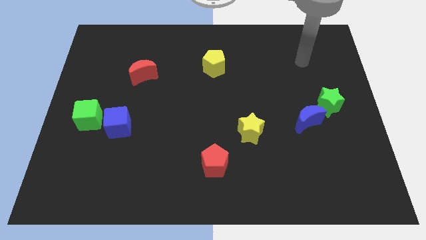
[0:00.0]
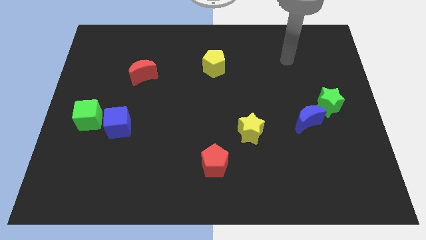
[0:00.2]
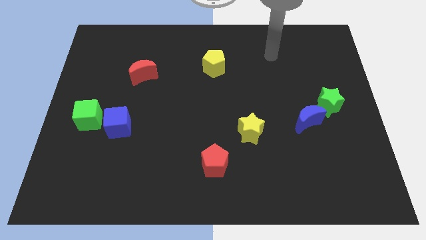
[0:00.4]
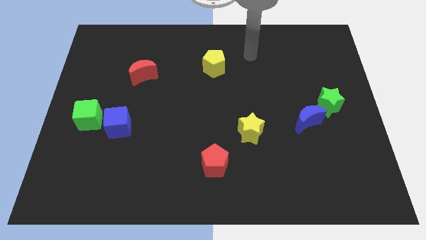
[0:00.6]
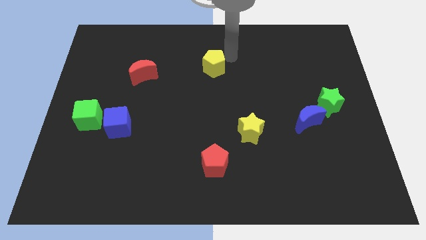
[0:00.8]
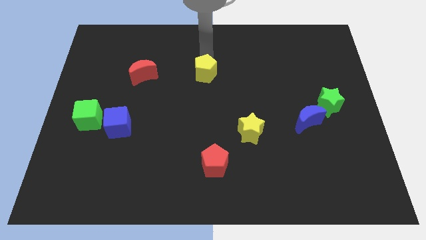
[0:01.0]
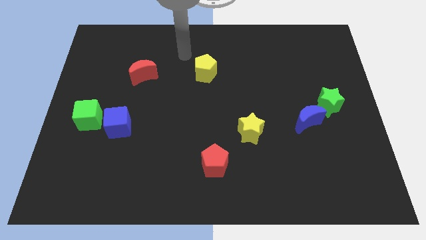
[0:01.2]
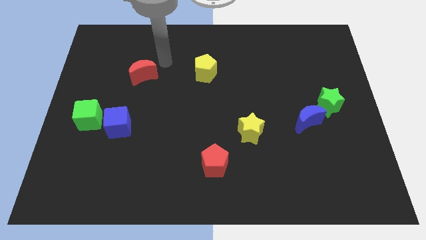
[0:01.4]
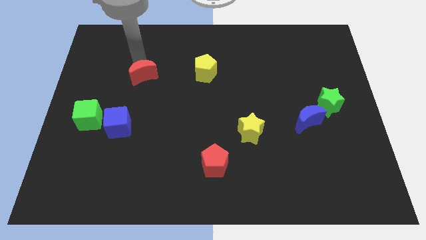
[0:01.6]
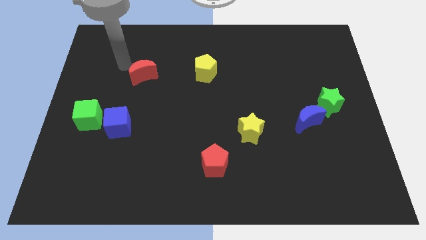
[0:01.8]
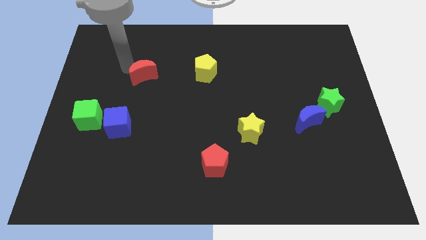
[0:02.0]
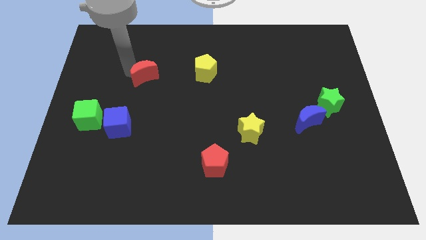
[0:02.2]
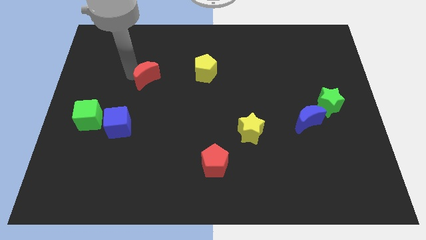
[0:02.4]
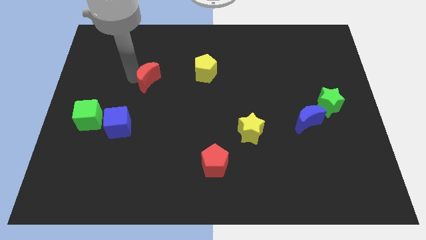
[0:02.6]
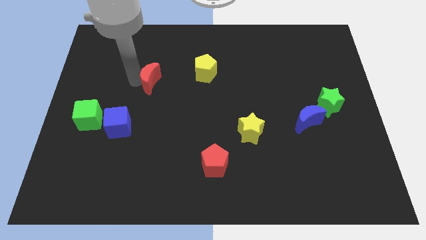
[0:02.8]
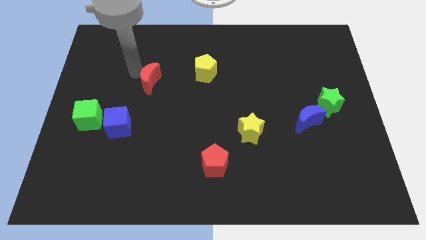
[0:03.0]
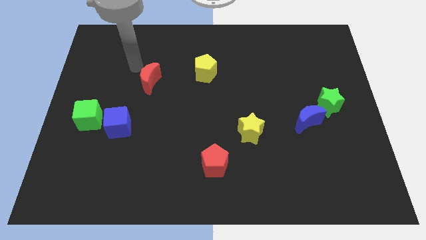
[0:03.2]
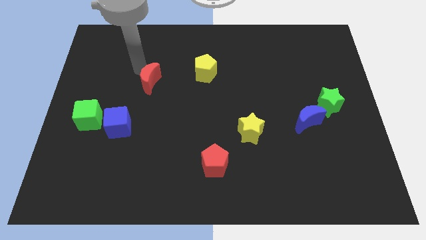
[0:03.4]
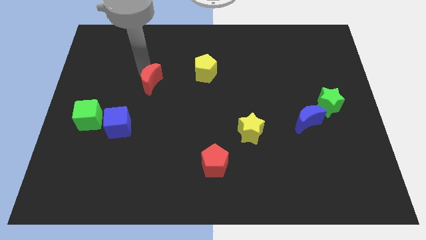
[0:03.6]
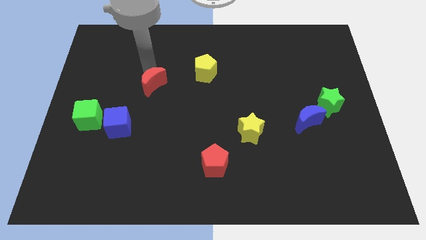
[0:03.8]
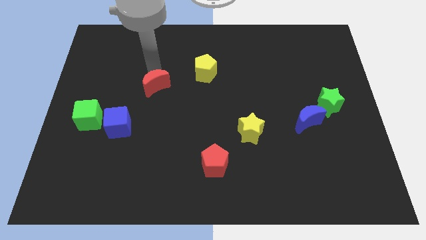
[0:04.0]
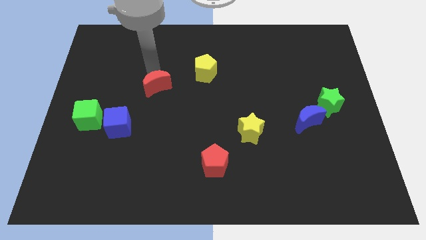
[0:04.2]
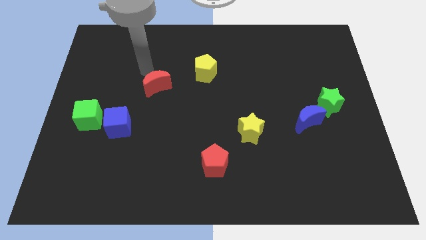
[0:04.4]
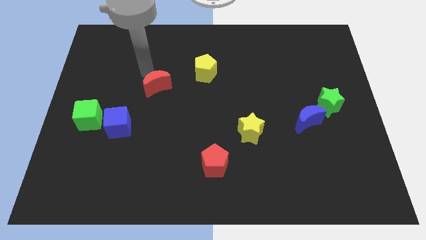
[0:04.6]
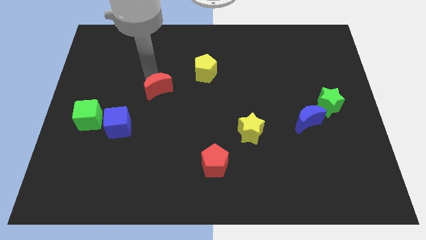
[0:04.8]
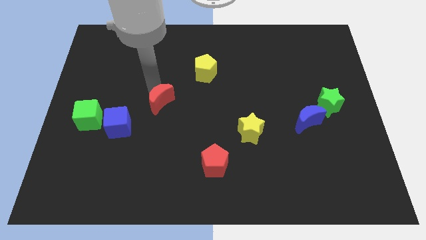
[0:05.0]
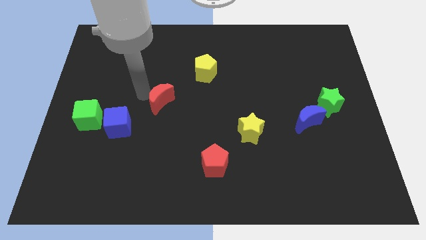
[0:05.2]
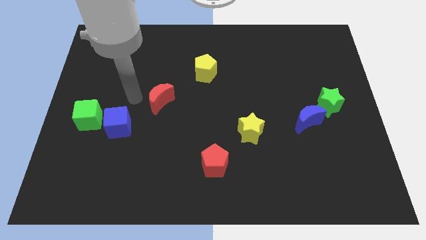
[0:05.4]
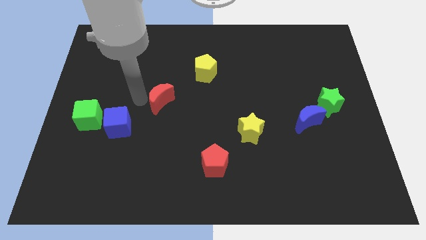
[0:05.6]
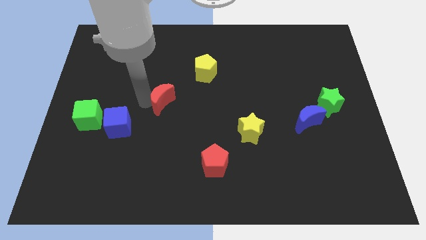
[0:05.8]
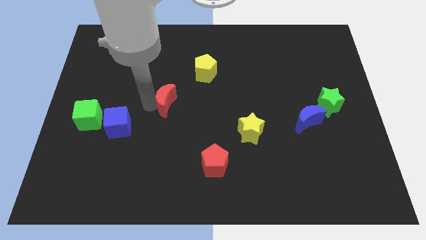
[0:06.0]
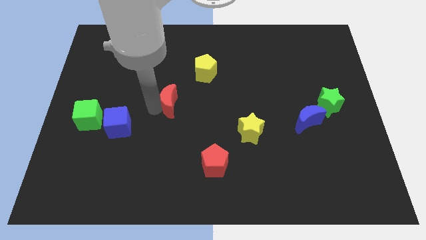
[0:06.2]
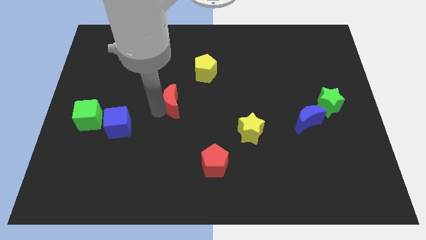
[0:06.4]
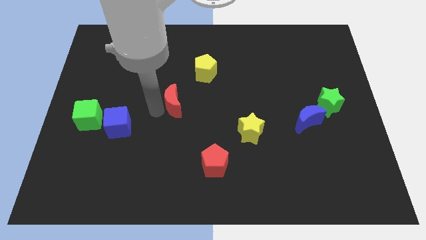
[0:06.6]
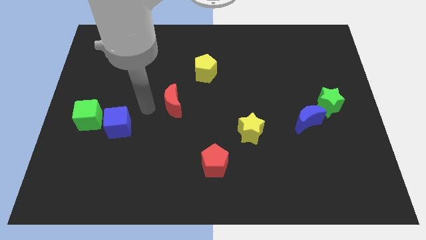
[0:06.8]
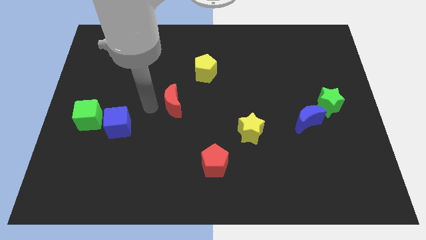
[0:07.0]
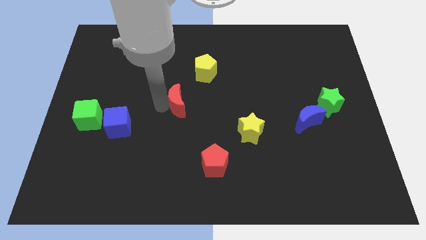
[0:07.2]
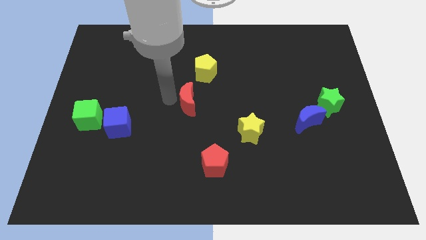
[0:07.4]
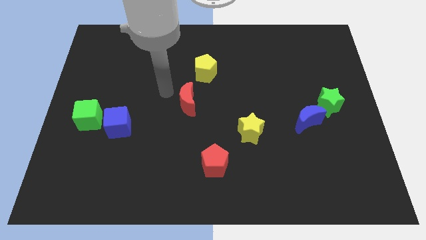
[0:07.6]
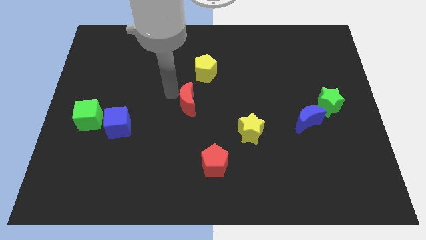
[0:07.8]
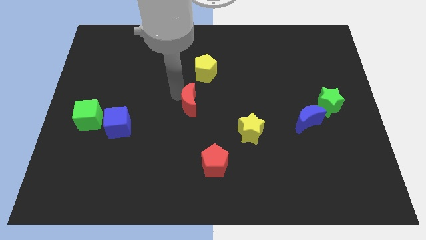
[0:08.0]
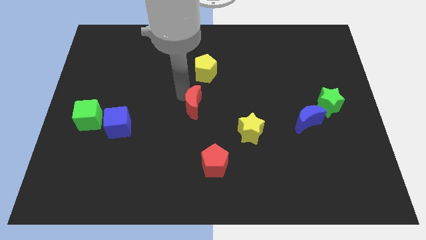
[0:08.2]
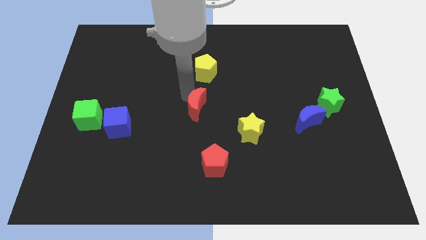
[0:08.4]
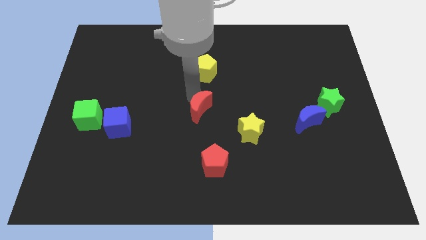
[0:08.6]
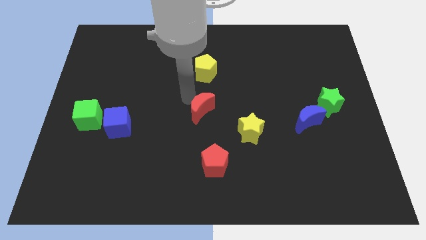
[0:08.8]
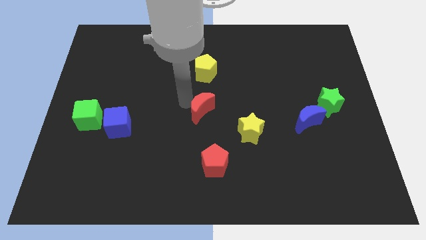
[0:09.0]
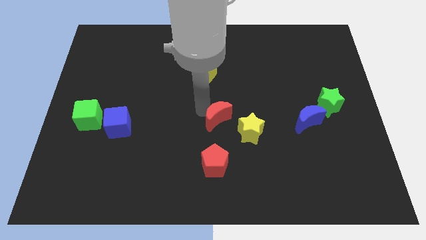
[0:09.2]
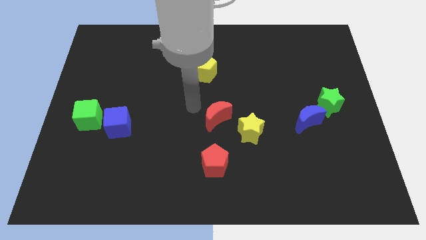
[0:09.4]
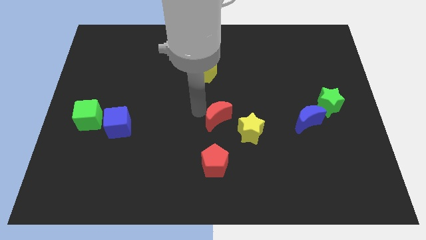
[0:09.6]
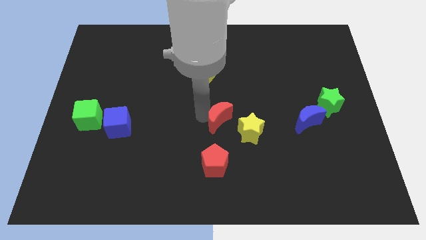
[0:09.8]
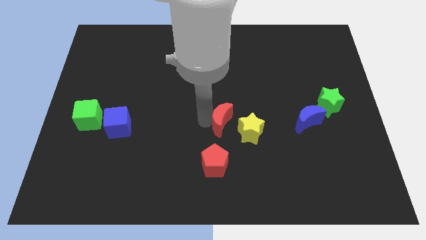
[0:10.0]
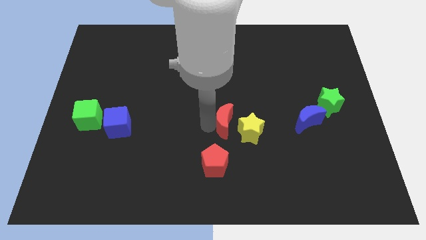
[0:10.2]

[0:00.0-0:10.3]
move the red moon towards the yellow star

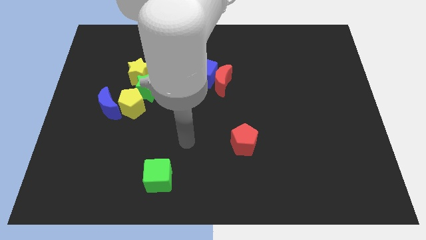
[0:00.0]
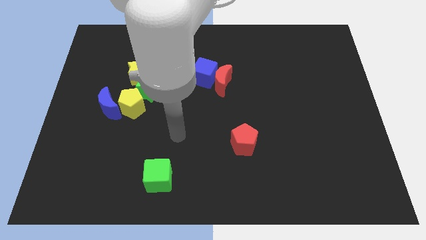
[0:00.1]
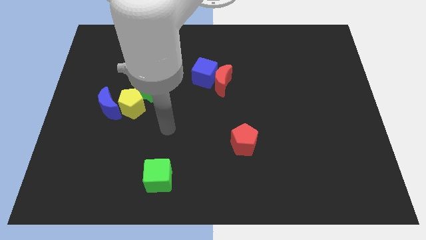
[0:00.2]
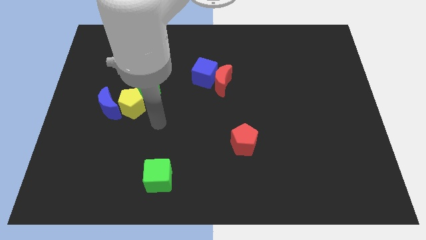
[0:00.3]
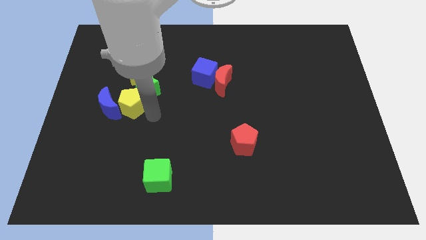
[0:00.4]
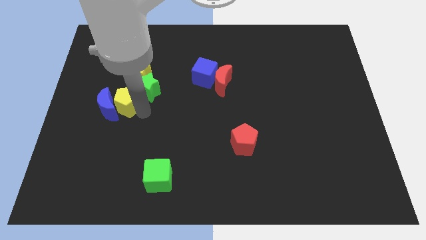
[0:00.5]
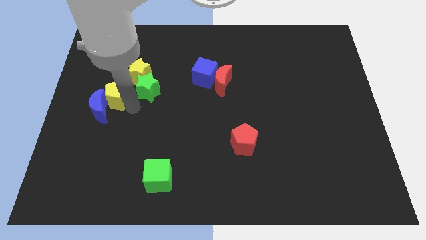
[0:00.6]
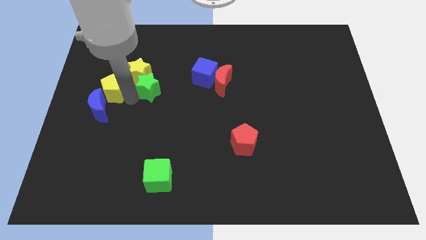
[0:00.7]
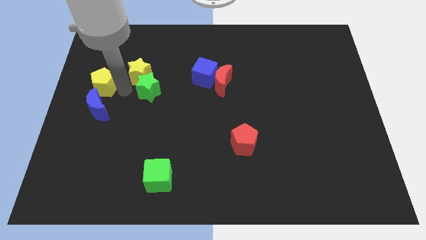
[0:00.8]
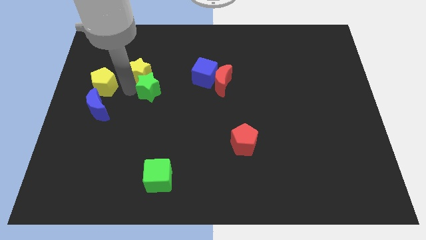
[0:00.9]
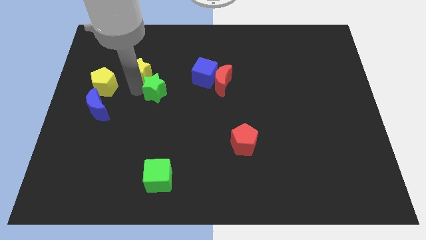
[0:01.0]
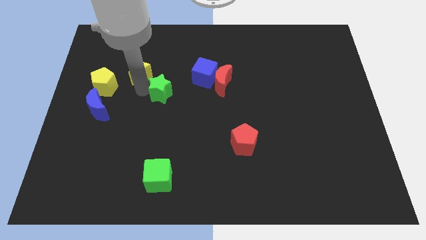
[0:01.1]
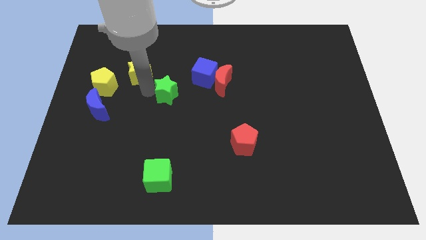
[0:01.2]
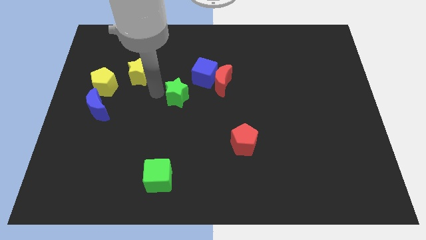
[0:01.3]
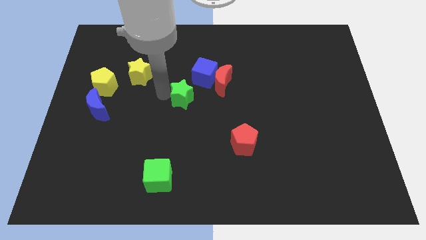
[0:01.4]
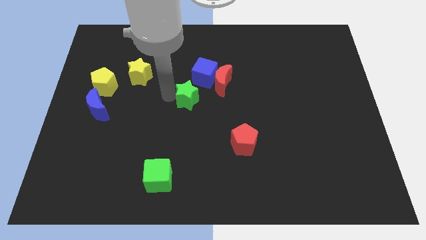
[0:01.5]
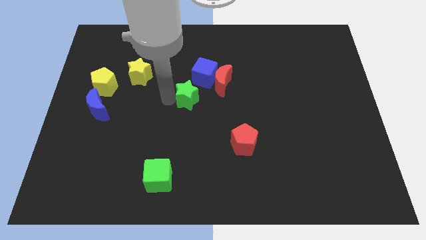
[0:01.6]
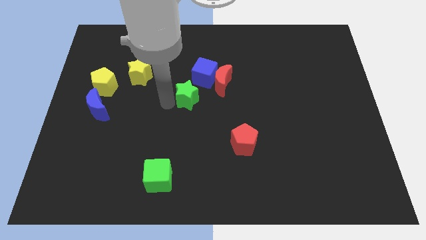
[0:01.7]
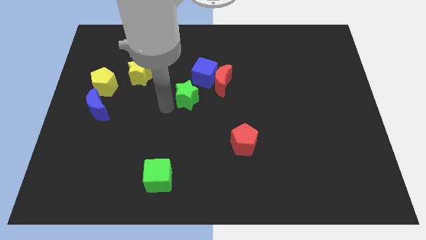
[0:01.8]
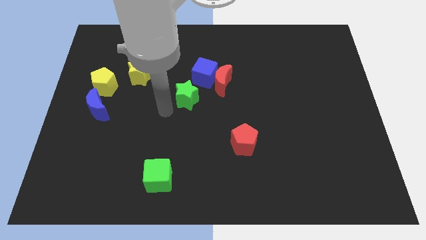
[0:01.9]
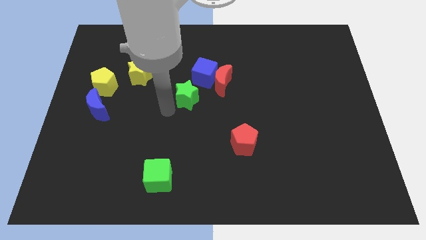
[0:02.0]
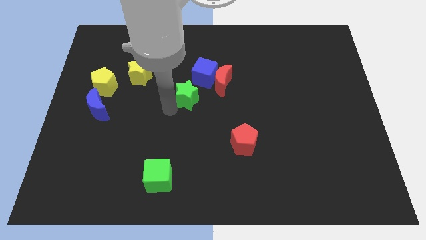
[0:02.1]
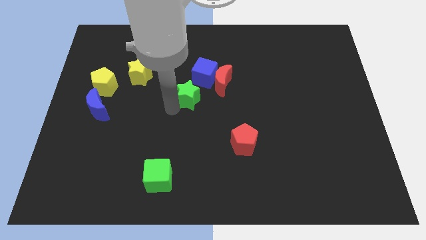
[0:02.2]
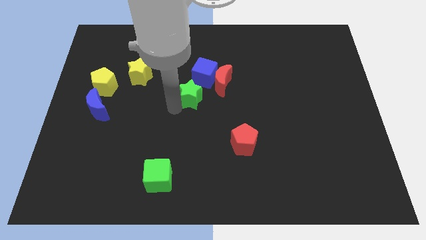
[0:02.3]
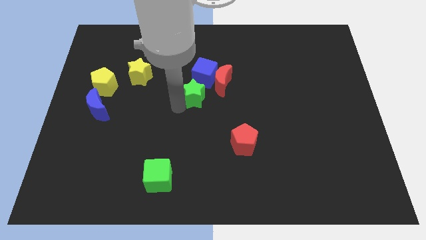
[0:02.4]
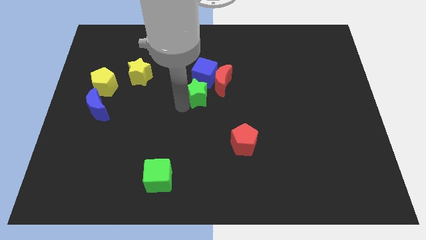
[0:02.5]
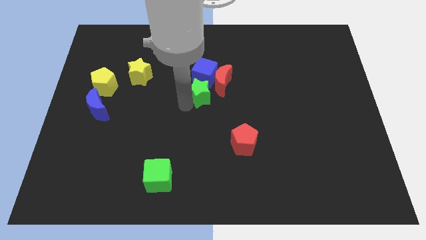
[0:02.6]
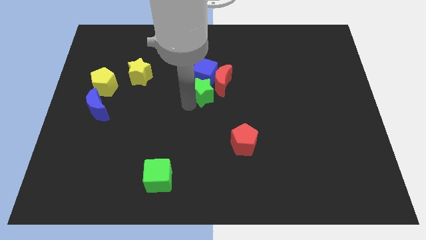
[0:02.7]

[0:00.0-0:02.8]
put the green star next to the red moon

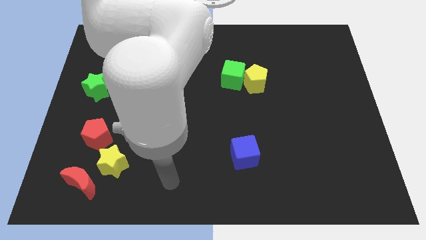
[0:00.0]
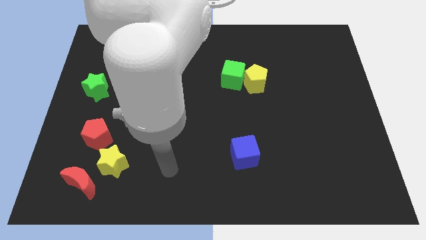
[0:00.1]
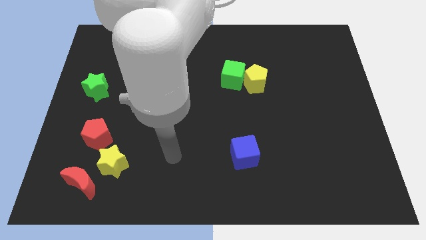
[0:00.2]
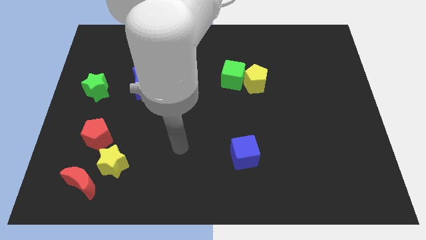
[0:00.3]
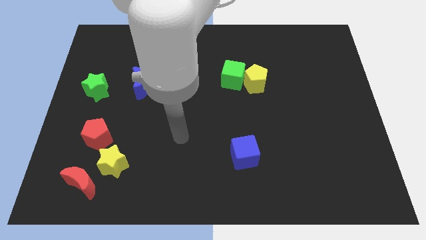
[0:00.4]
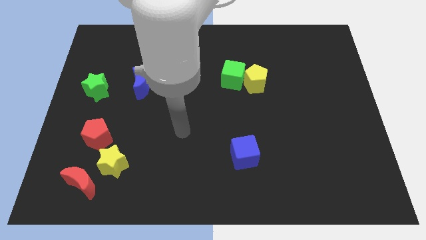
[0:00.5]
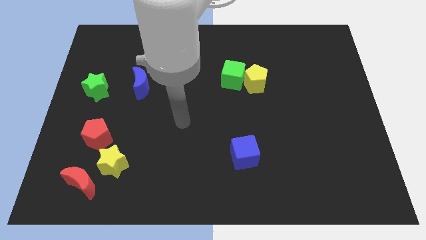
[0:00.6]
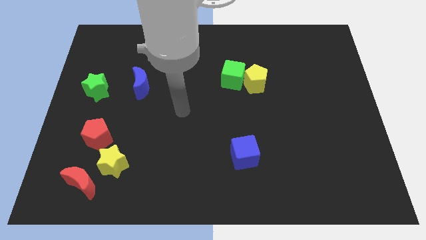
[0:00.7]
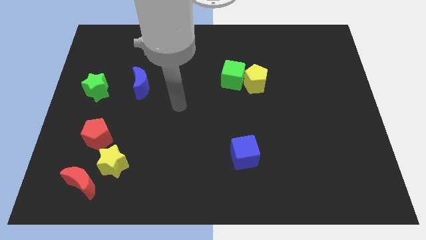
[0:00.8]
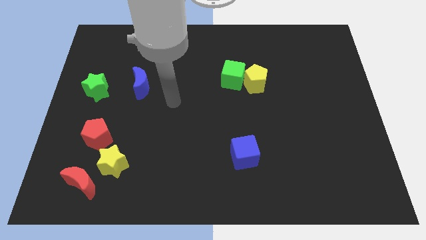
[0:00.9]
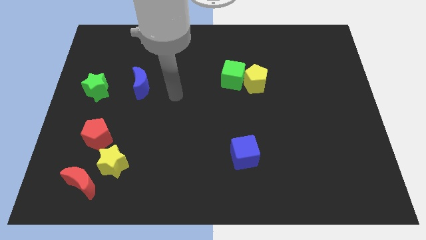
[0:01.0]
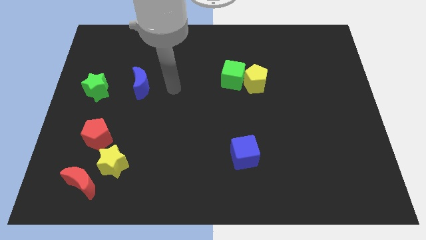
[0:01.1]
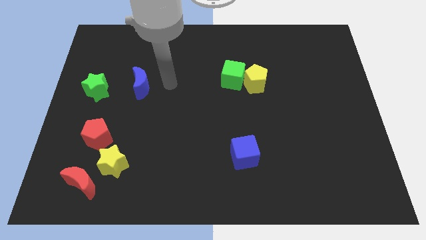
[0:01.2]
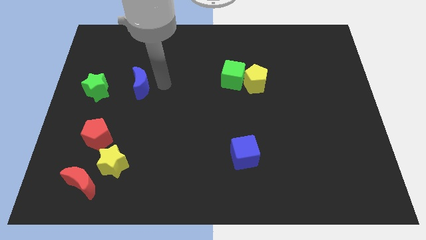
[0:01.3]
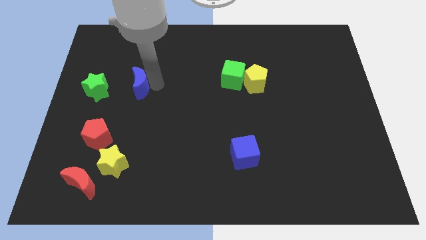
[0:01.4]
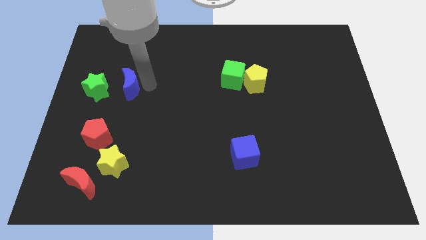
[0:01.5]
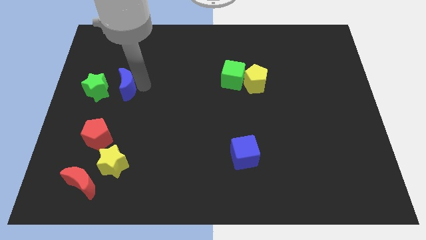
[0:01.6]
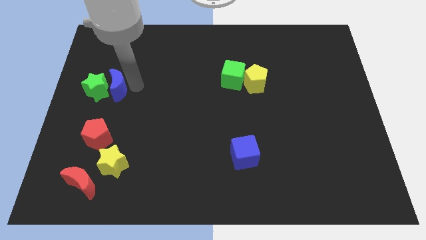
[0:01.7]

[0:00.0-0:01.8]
push the blue moon close to the green star
